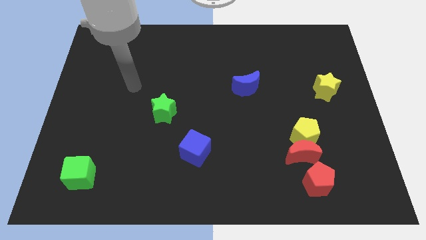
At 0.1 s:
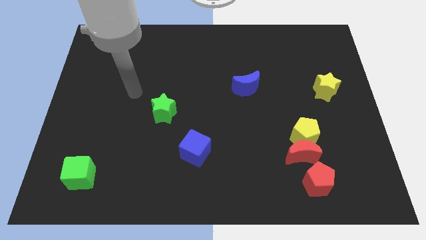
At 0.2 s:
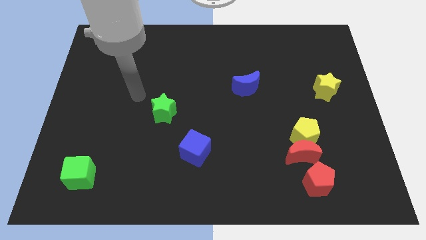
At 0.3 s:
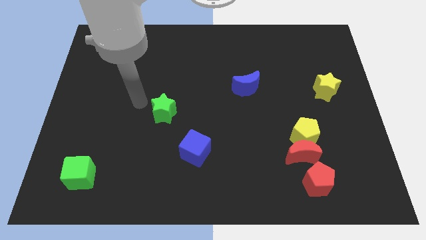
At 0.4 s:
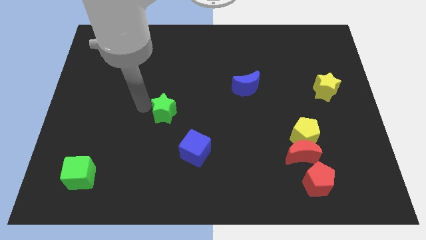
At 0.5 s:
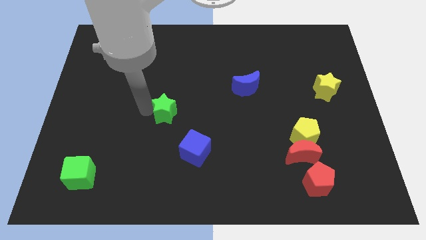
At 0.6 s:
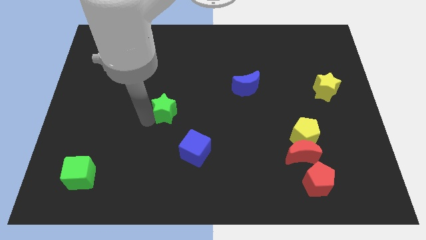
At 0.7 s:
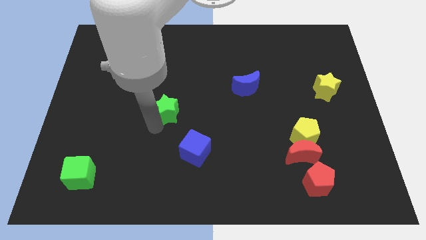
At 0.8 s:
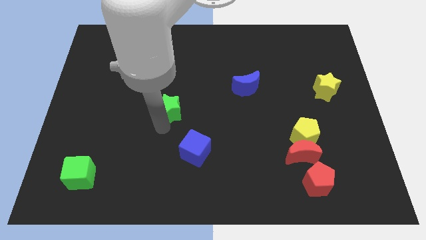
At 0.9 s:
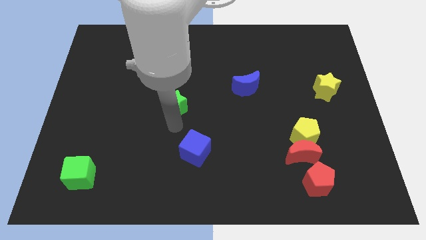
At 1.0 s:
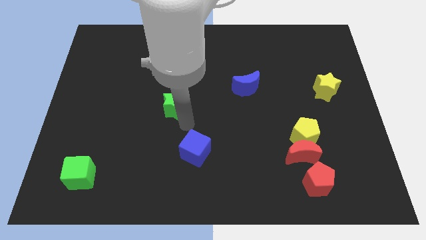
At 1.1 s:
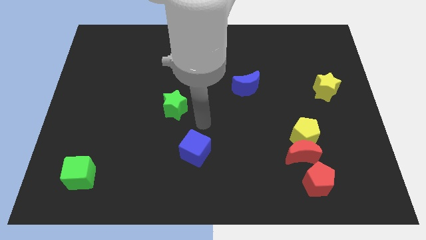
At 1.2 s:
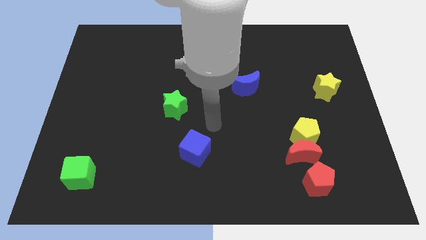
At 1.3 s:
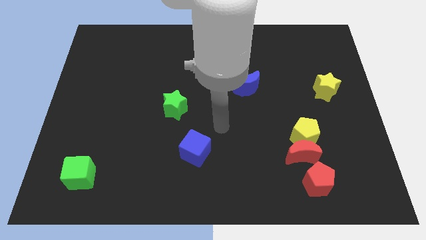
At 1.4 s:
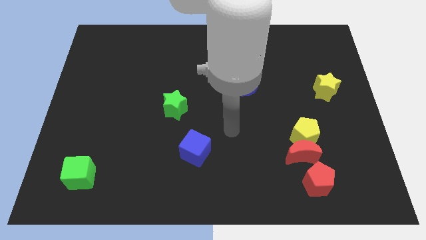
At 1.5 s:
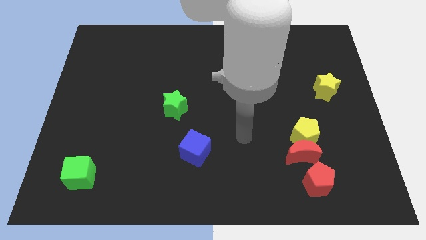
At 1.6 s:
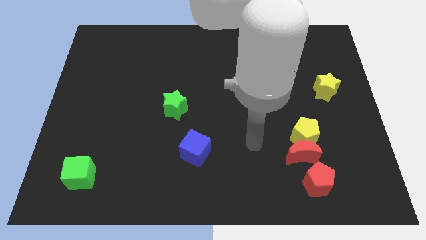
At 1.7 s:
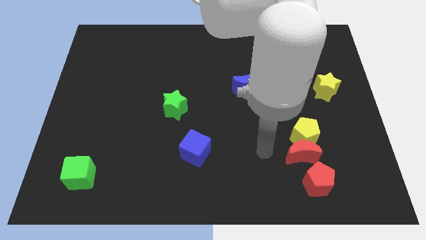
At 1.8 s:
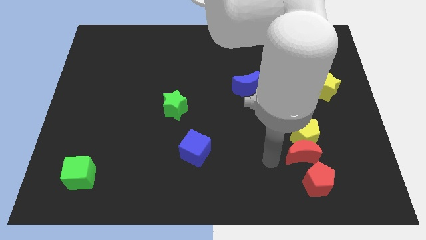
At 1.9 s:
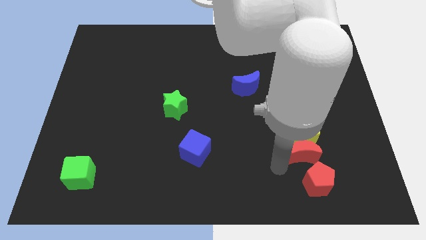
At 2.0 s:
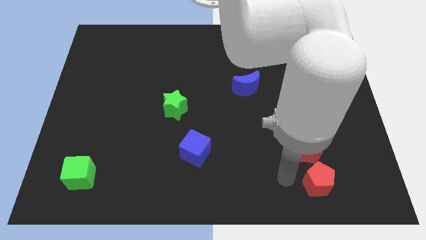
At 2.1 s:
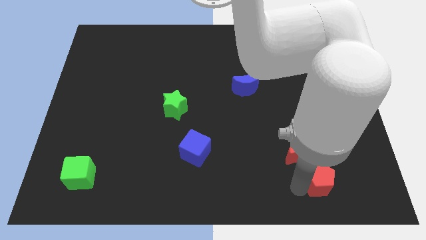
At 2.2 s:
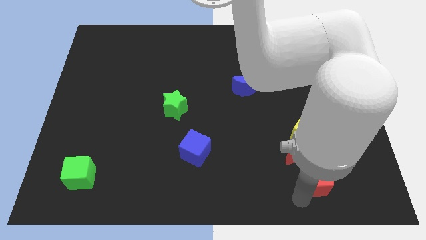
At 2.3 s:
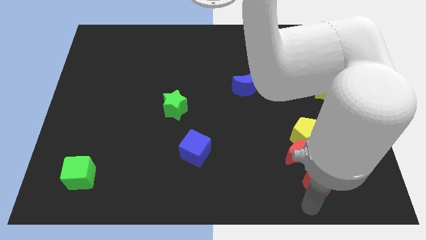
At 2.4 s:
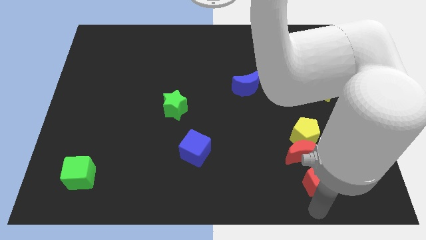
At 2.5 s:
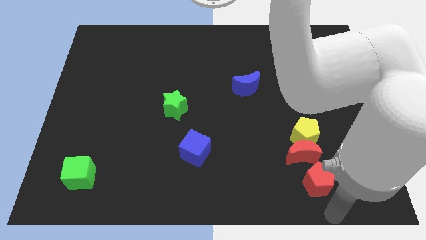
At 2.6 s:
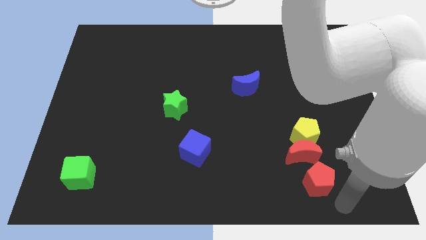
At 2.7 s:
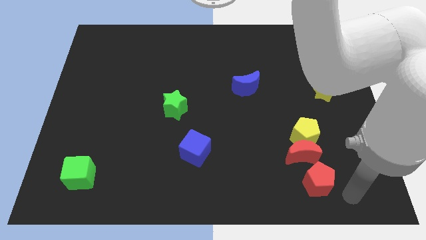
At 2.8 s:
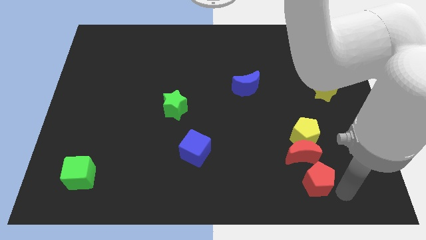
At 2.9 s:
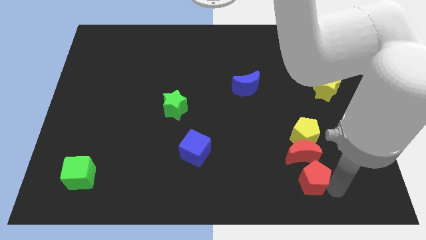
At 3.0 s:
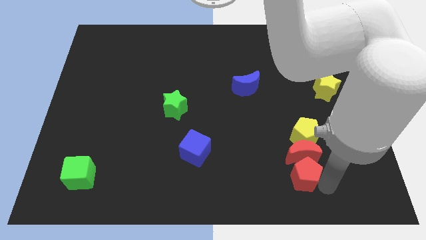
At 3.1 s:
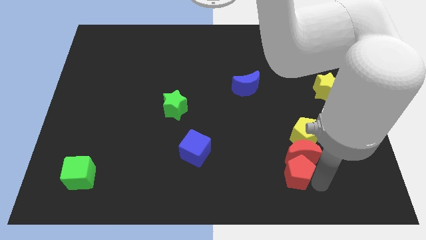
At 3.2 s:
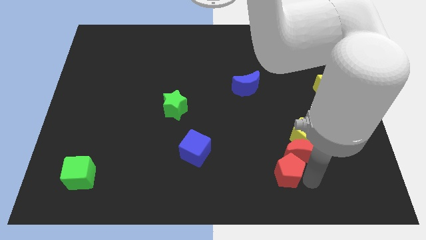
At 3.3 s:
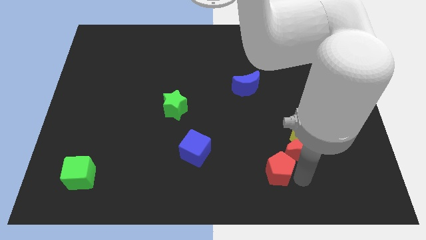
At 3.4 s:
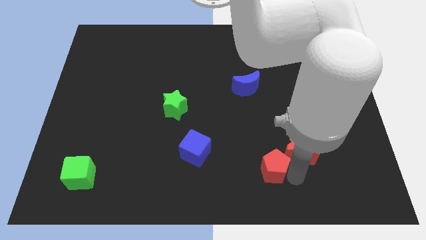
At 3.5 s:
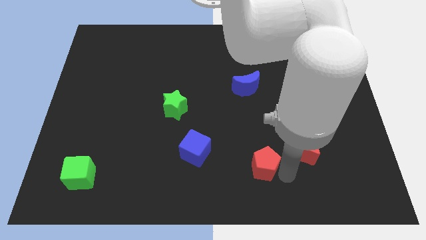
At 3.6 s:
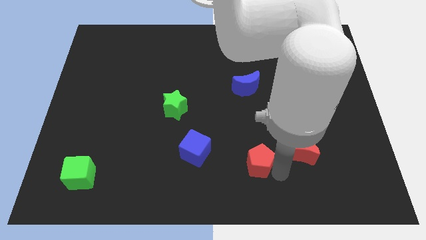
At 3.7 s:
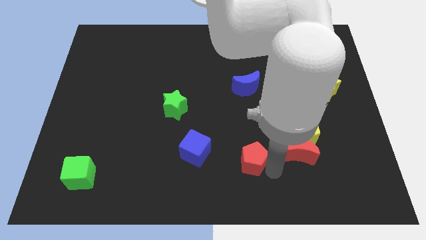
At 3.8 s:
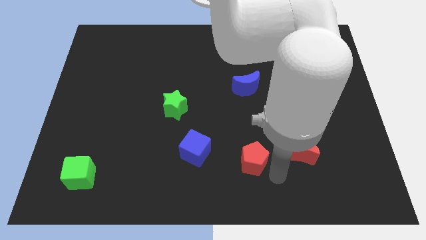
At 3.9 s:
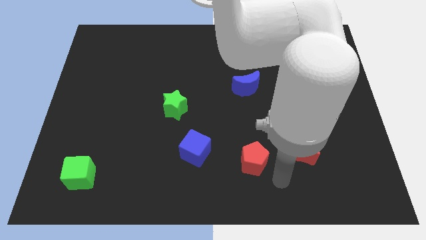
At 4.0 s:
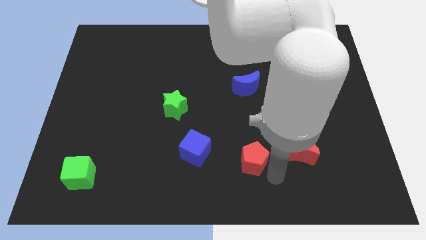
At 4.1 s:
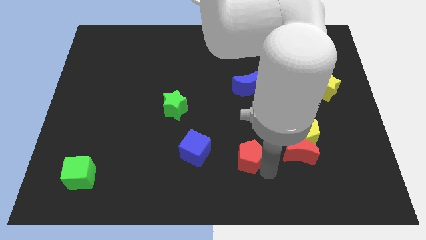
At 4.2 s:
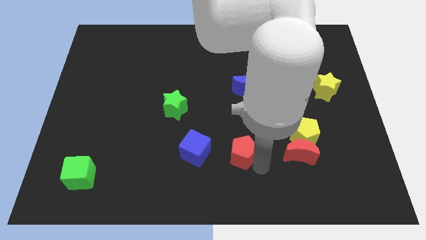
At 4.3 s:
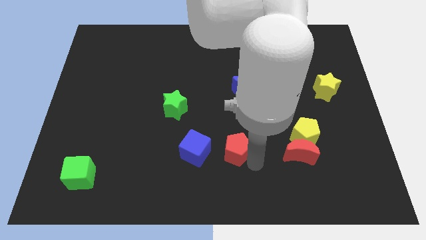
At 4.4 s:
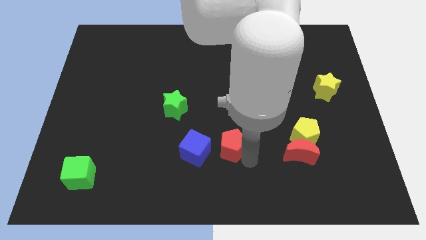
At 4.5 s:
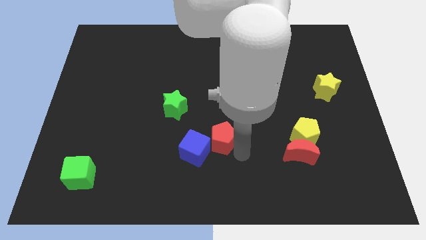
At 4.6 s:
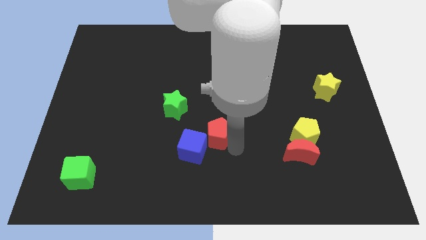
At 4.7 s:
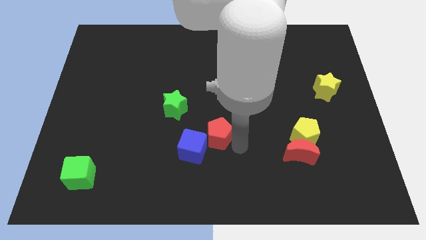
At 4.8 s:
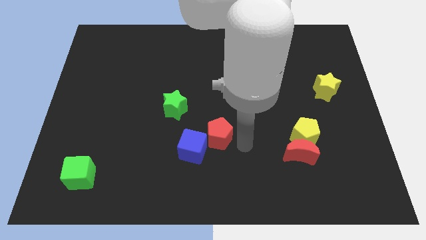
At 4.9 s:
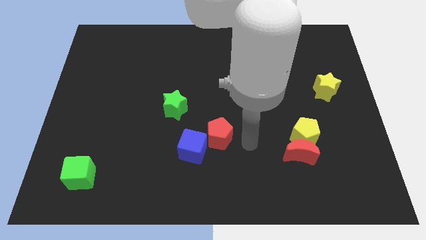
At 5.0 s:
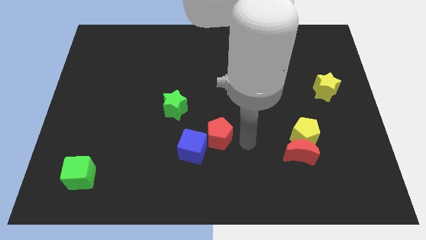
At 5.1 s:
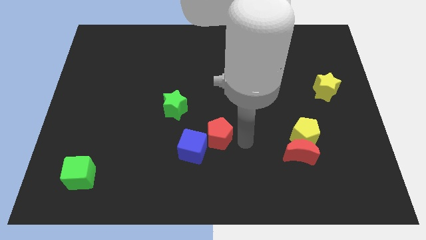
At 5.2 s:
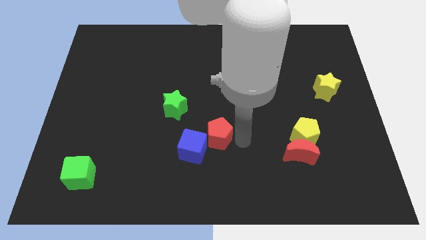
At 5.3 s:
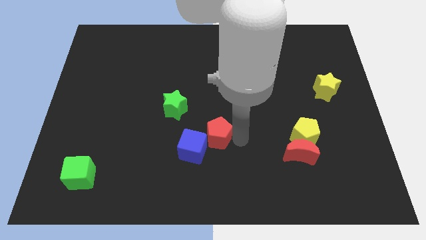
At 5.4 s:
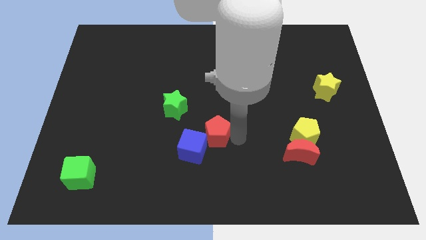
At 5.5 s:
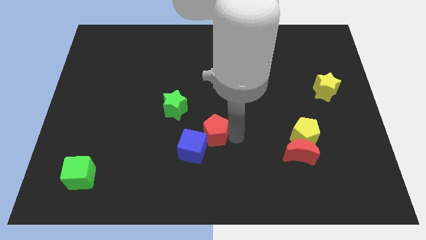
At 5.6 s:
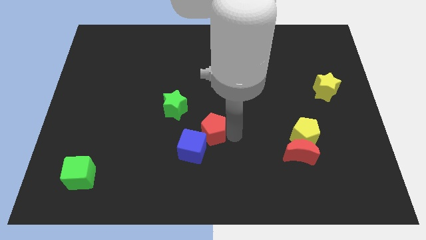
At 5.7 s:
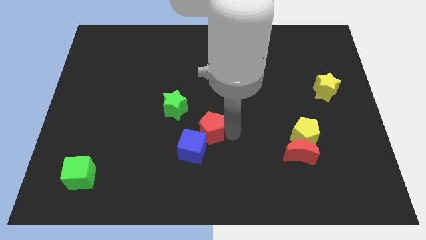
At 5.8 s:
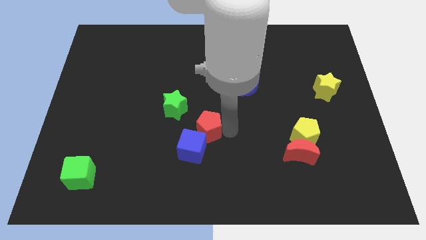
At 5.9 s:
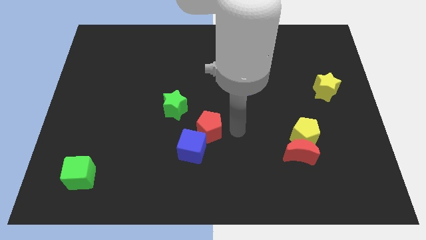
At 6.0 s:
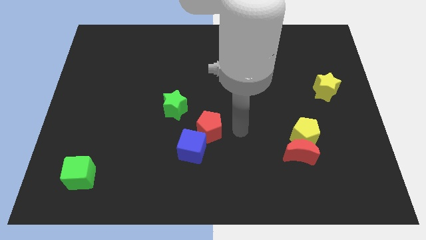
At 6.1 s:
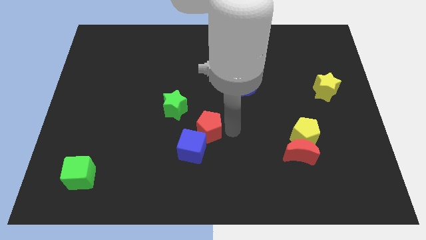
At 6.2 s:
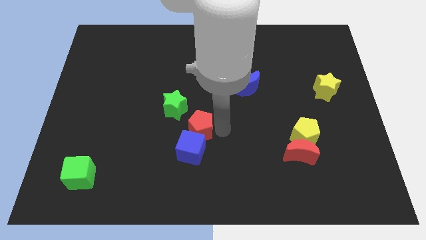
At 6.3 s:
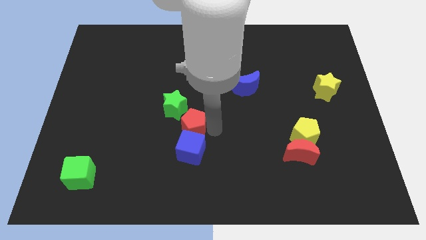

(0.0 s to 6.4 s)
push the red pentagon to the top left of the blue cube

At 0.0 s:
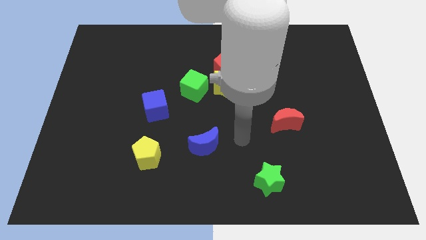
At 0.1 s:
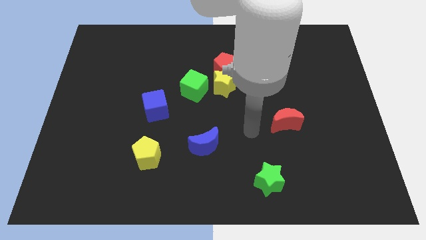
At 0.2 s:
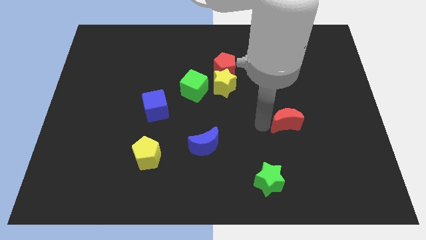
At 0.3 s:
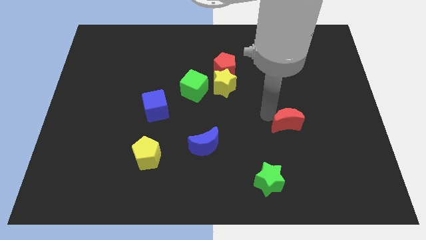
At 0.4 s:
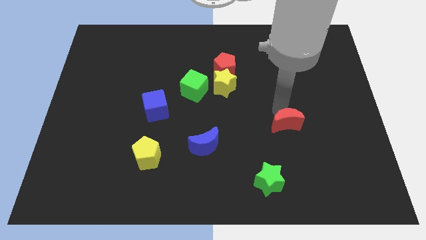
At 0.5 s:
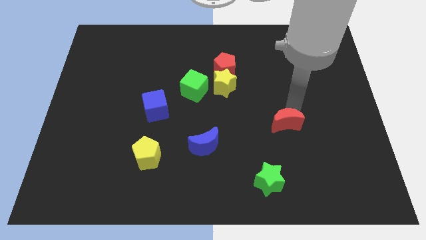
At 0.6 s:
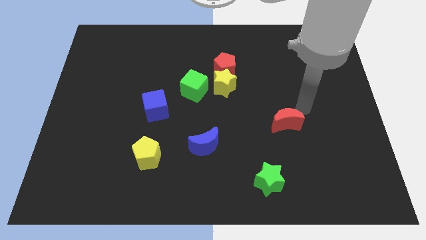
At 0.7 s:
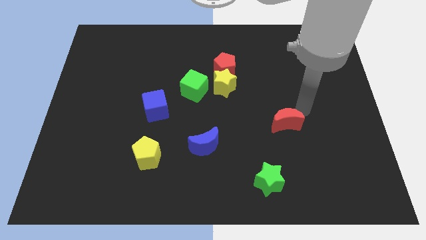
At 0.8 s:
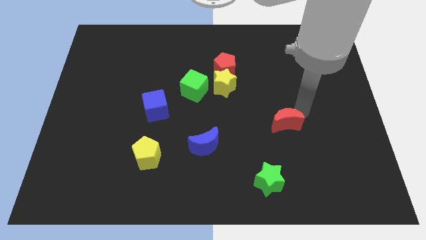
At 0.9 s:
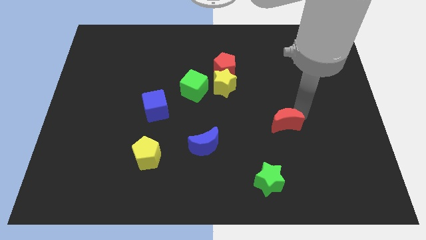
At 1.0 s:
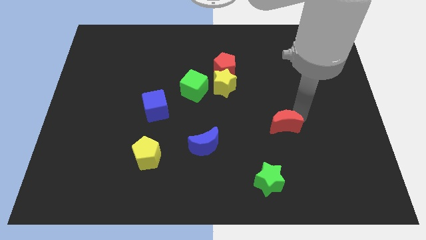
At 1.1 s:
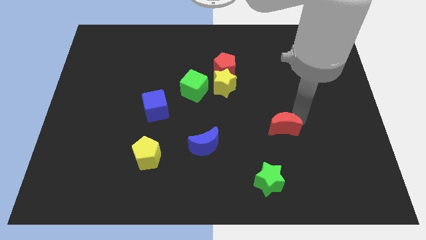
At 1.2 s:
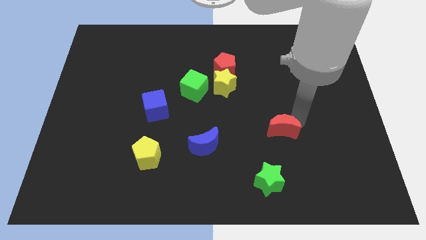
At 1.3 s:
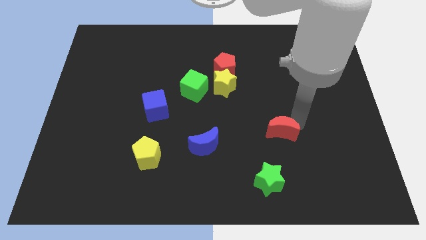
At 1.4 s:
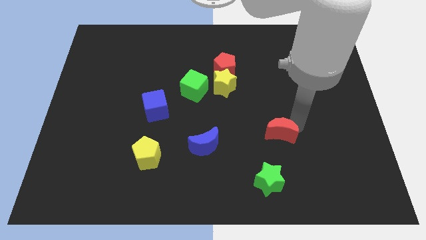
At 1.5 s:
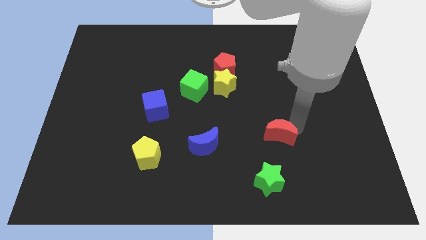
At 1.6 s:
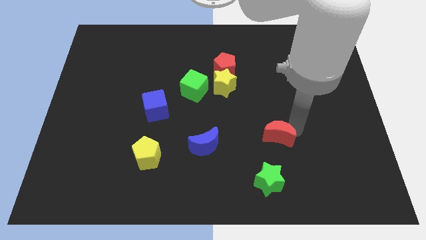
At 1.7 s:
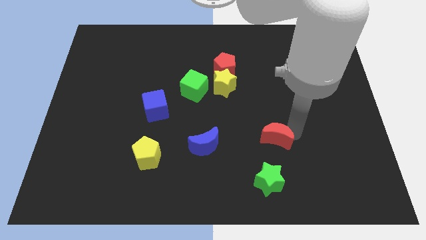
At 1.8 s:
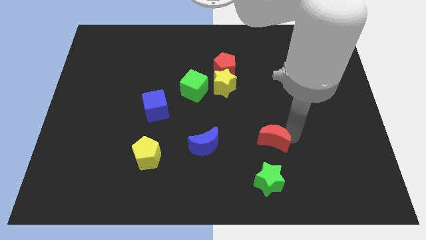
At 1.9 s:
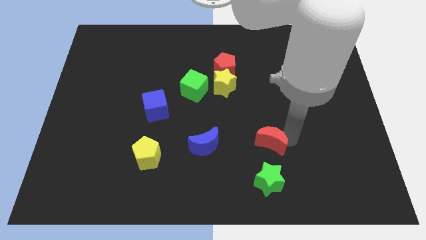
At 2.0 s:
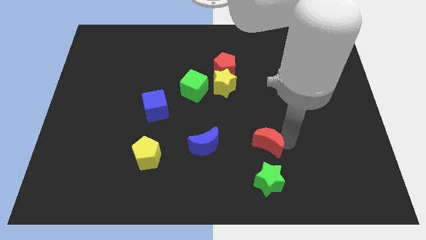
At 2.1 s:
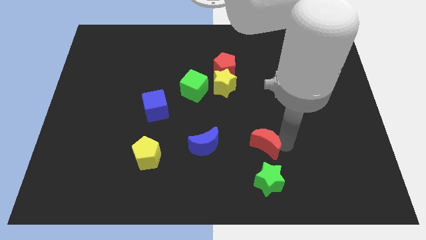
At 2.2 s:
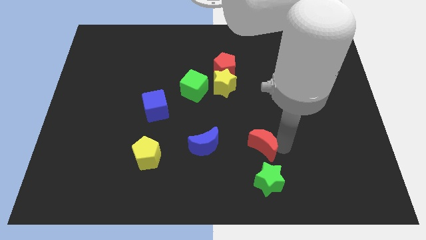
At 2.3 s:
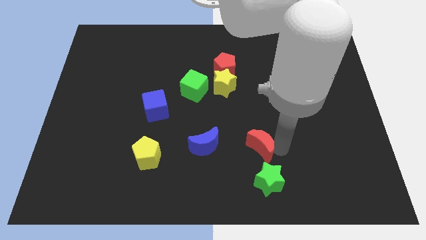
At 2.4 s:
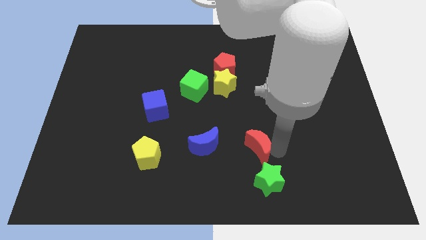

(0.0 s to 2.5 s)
put the red moon diagonally up and to the left of the green star
